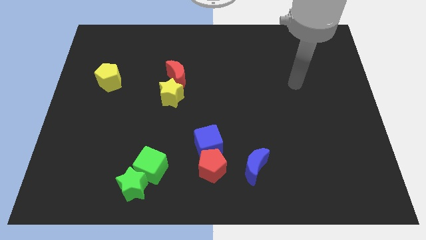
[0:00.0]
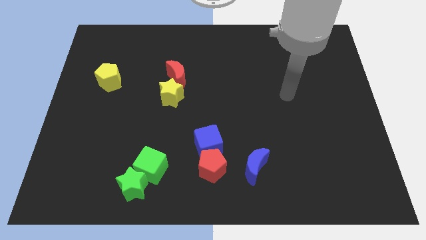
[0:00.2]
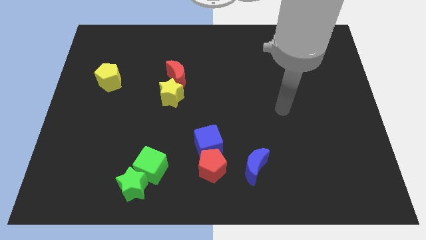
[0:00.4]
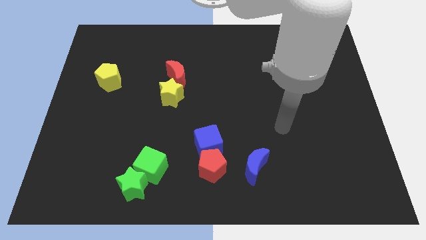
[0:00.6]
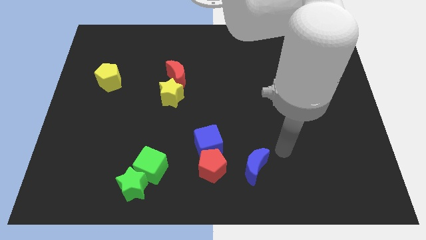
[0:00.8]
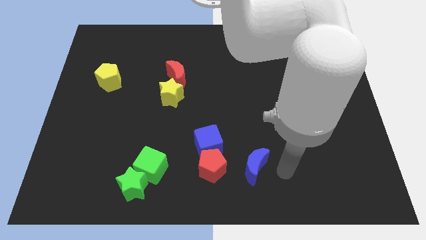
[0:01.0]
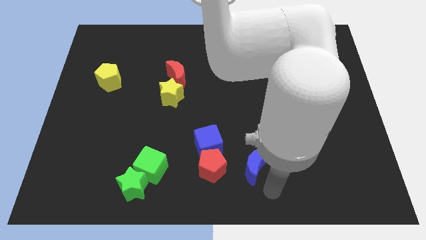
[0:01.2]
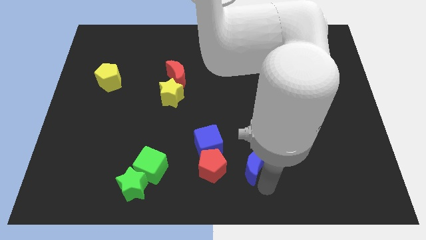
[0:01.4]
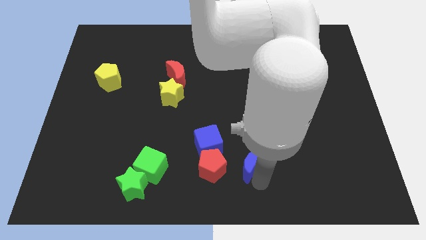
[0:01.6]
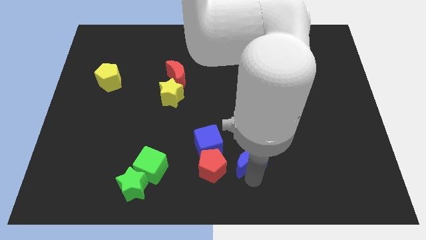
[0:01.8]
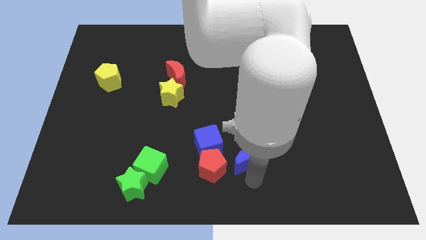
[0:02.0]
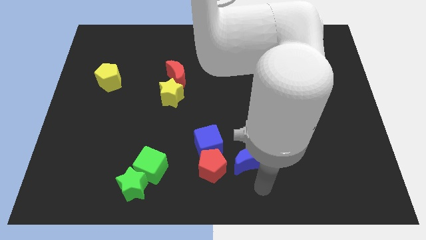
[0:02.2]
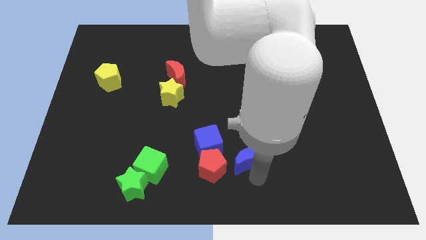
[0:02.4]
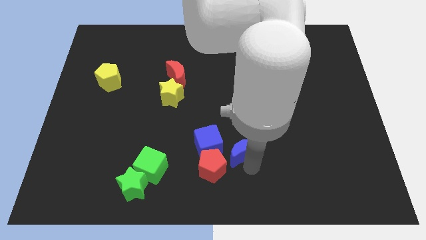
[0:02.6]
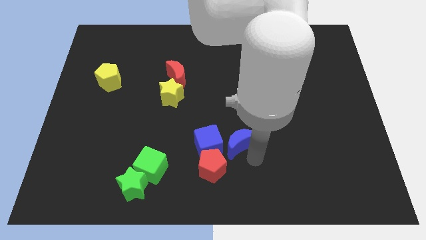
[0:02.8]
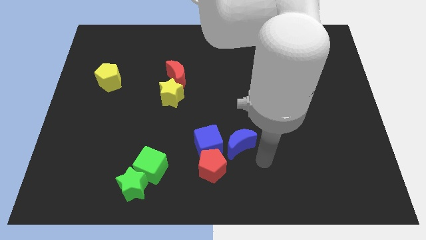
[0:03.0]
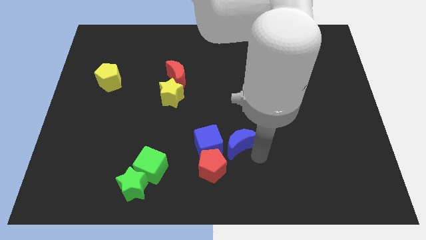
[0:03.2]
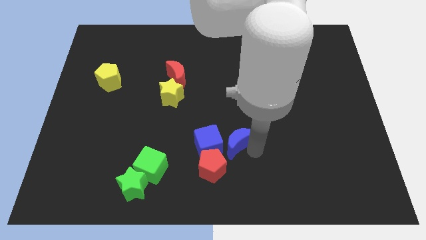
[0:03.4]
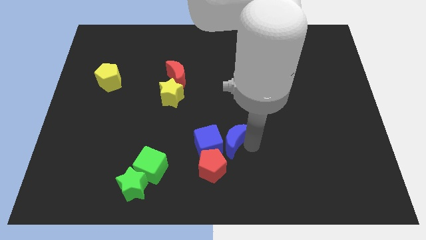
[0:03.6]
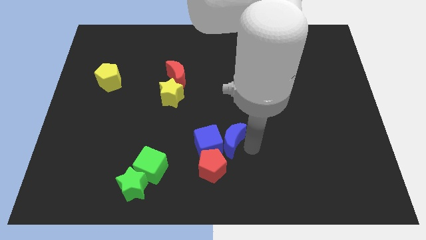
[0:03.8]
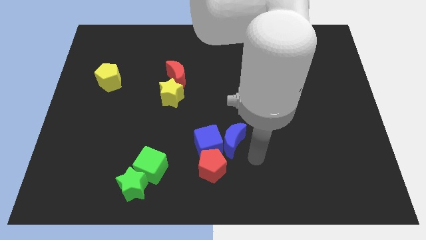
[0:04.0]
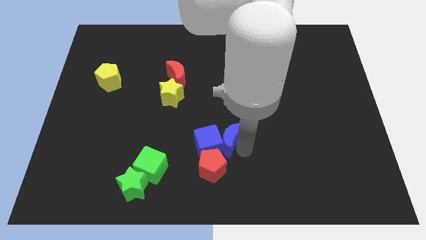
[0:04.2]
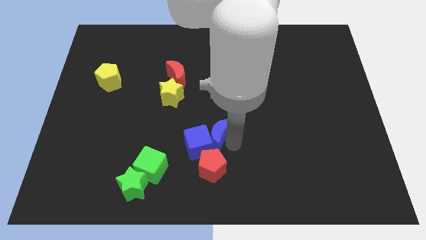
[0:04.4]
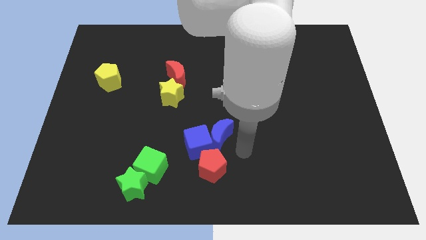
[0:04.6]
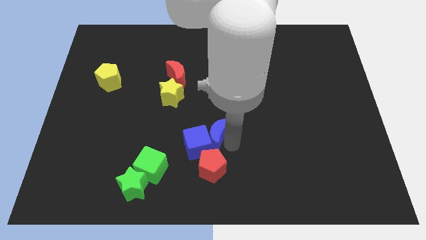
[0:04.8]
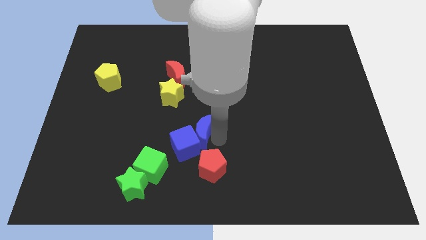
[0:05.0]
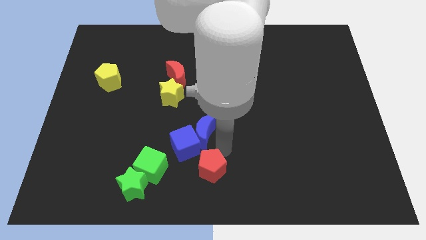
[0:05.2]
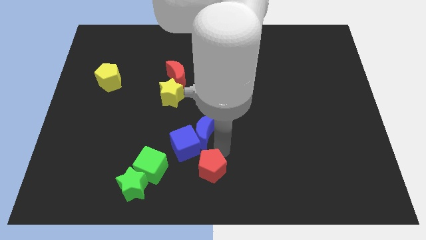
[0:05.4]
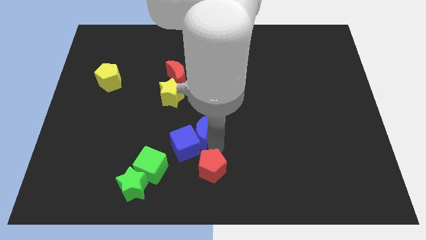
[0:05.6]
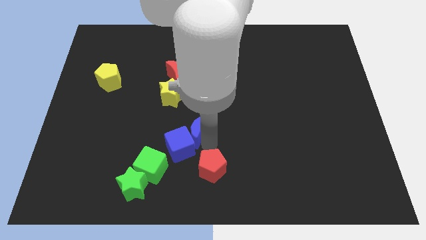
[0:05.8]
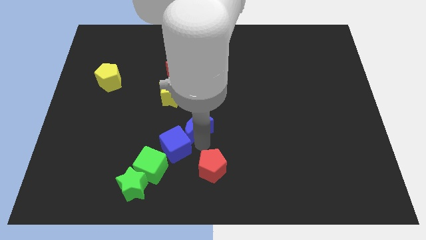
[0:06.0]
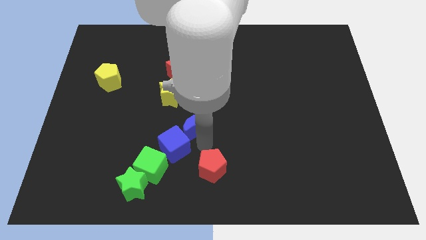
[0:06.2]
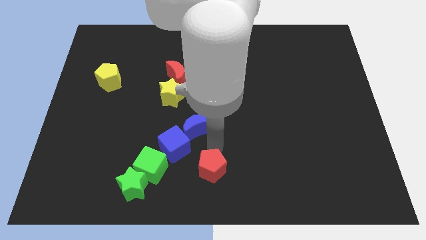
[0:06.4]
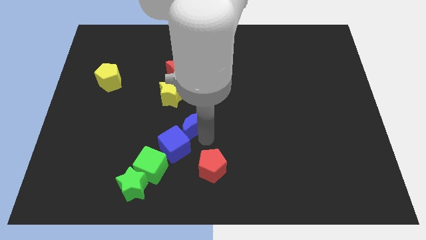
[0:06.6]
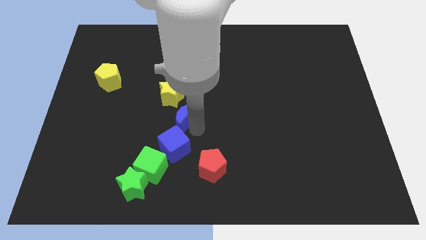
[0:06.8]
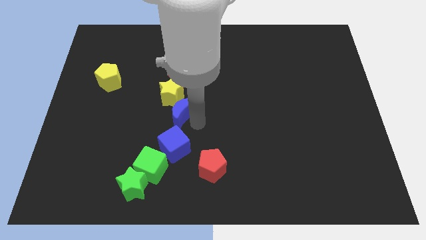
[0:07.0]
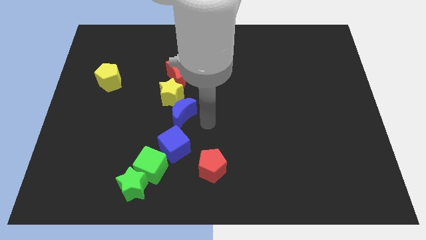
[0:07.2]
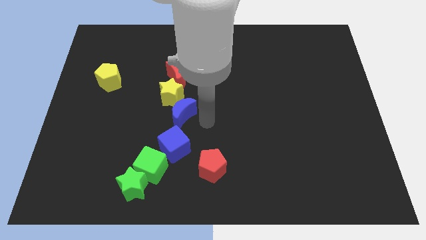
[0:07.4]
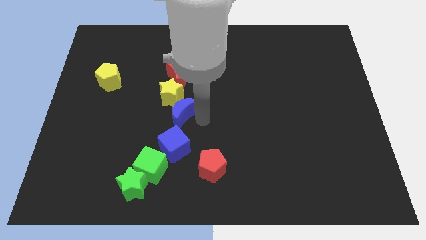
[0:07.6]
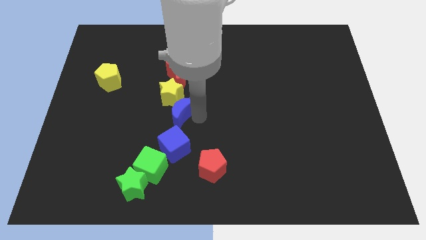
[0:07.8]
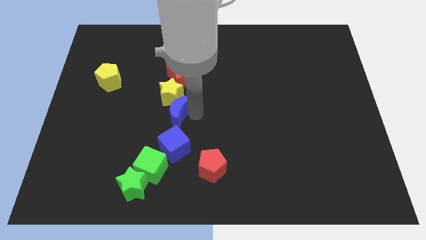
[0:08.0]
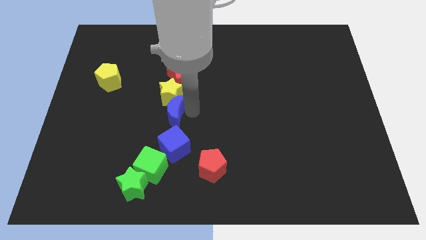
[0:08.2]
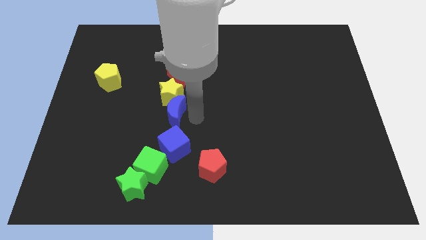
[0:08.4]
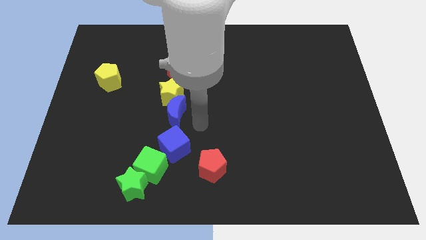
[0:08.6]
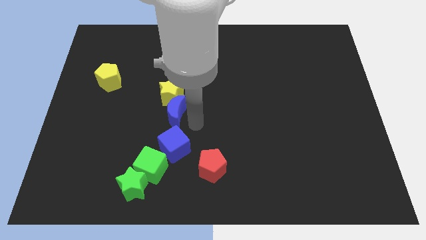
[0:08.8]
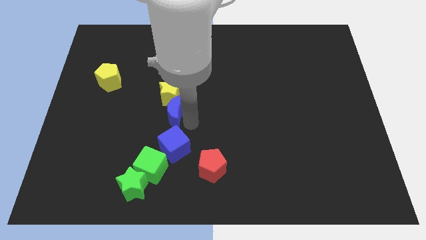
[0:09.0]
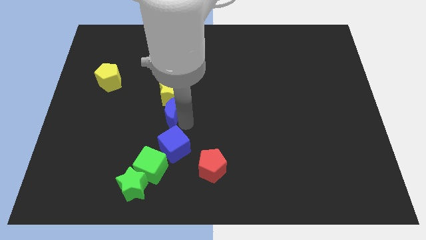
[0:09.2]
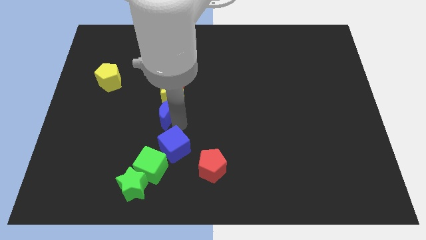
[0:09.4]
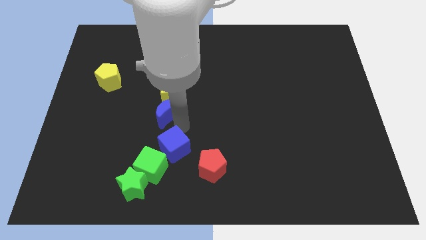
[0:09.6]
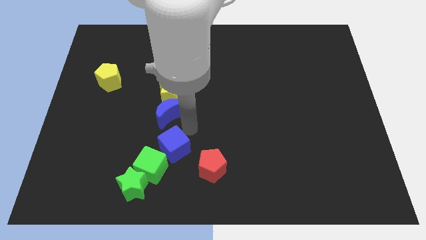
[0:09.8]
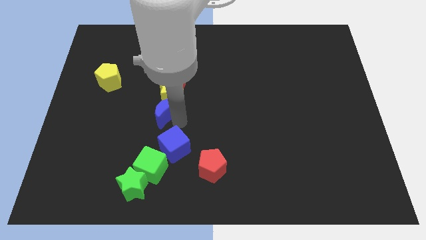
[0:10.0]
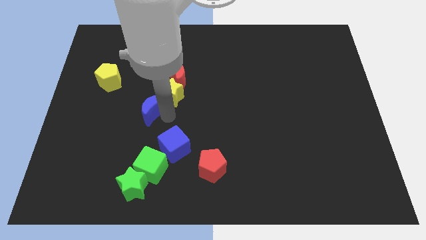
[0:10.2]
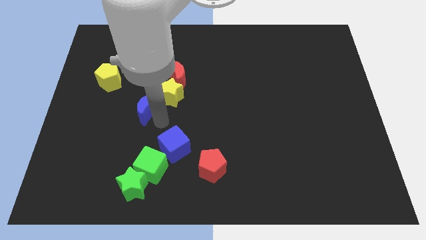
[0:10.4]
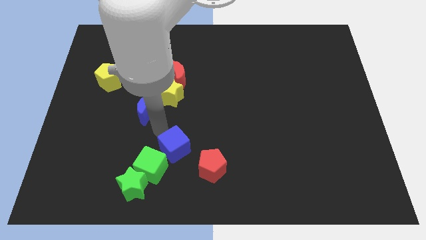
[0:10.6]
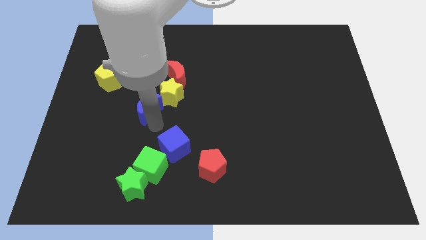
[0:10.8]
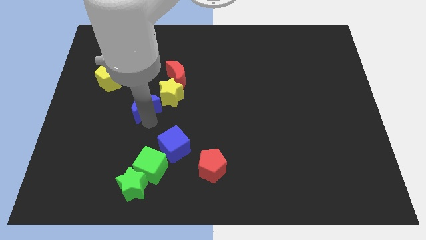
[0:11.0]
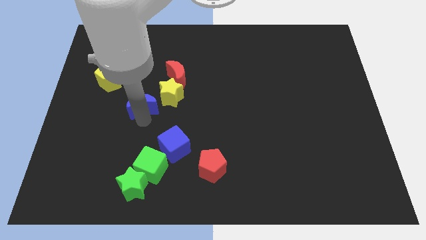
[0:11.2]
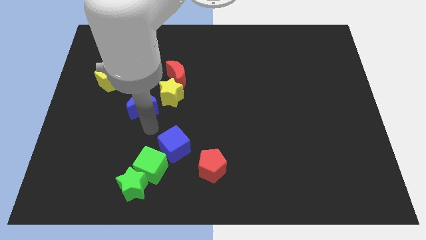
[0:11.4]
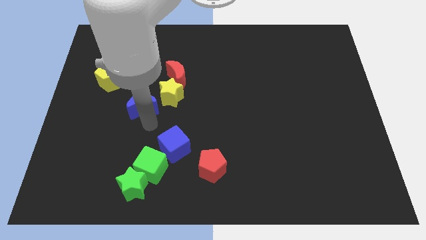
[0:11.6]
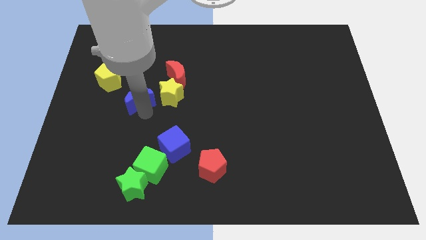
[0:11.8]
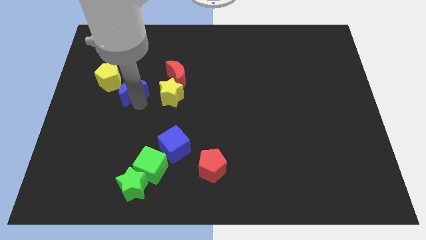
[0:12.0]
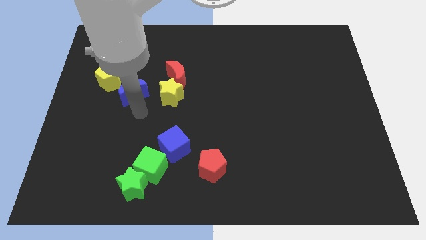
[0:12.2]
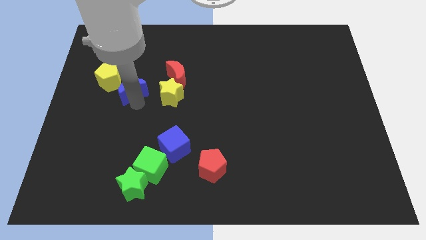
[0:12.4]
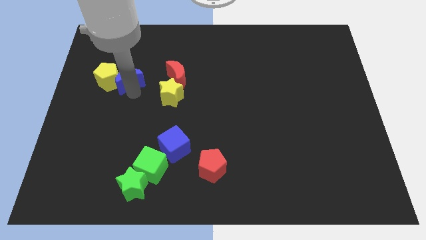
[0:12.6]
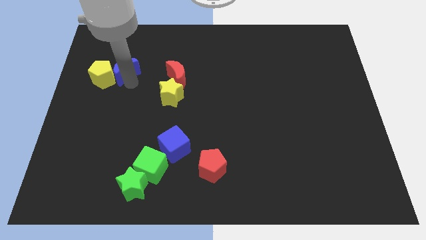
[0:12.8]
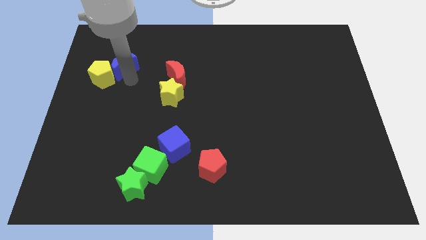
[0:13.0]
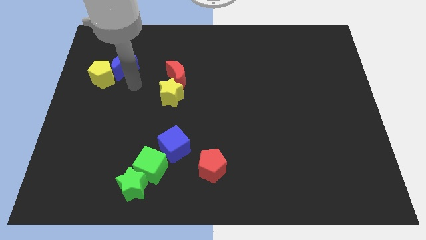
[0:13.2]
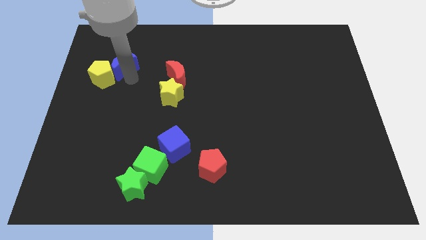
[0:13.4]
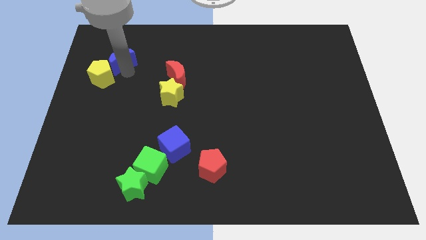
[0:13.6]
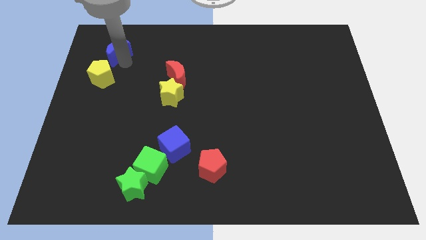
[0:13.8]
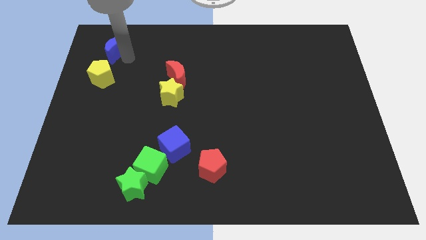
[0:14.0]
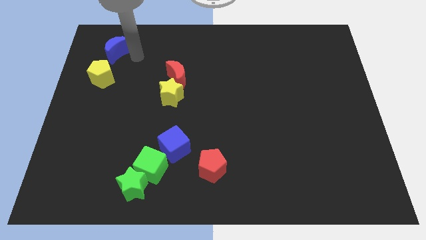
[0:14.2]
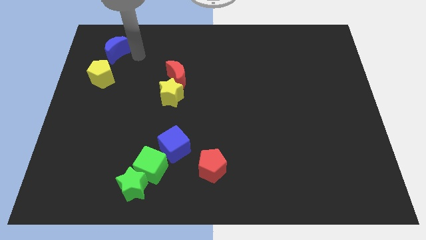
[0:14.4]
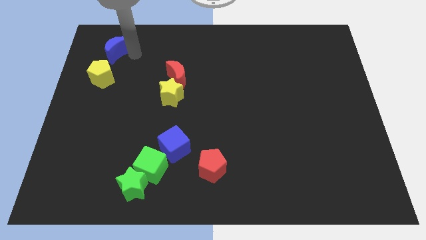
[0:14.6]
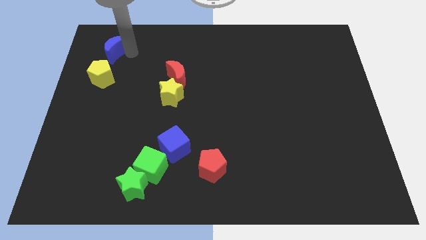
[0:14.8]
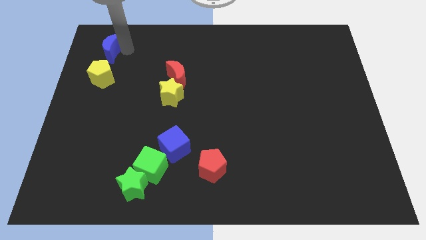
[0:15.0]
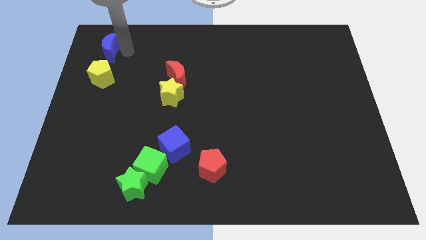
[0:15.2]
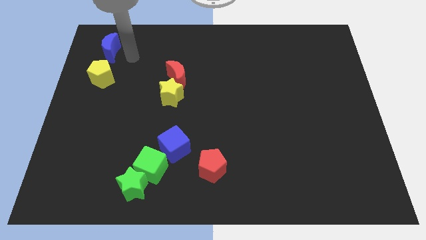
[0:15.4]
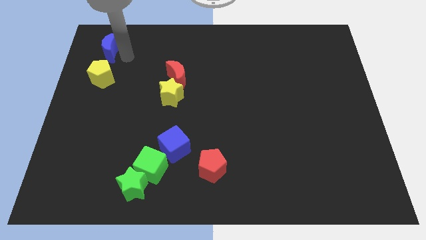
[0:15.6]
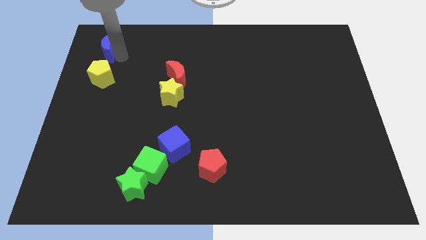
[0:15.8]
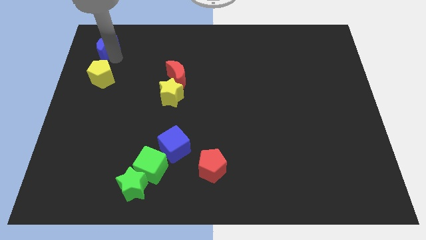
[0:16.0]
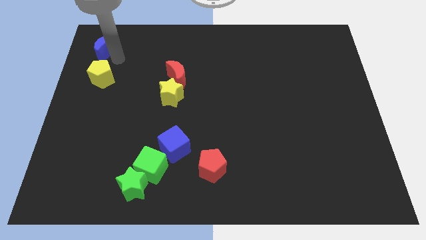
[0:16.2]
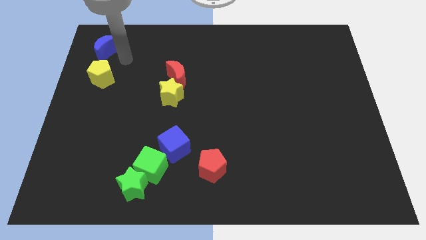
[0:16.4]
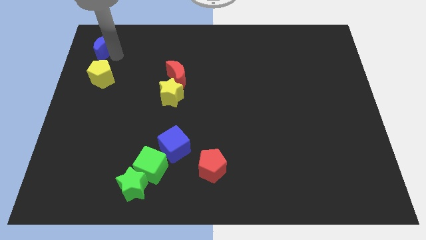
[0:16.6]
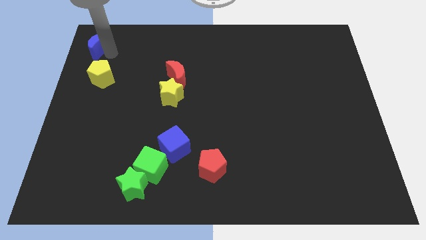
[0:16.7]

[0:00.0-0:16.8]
put the blue moon to the top left of the board
